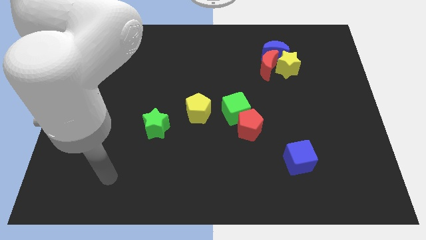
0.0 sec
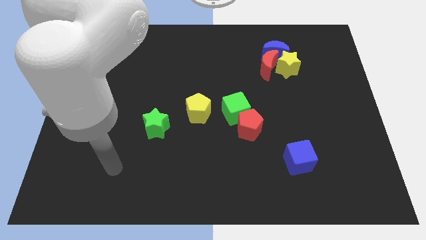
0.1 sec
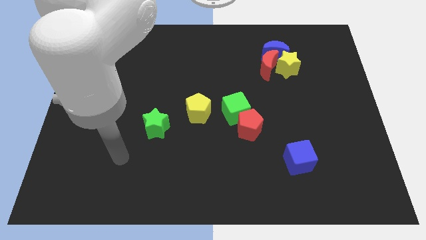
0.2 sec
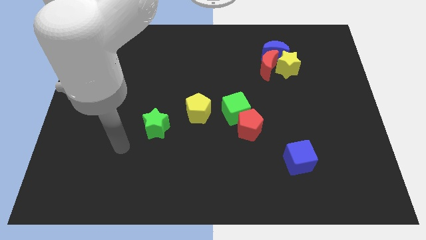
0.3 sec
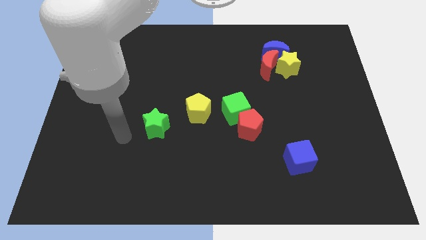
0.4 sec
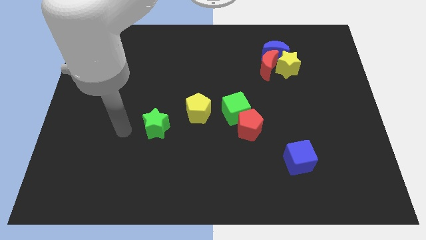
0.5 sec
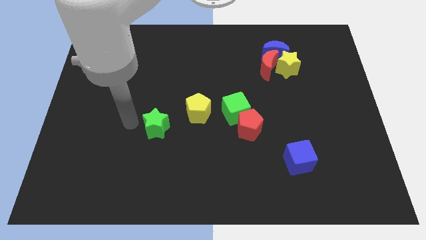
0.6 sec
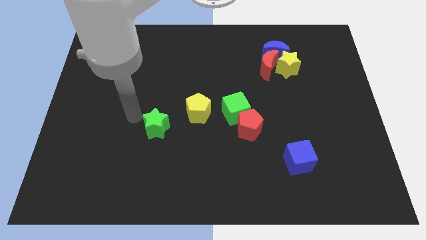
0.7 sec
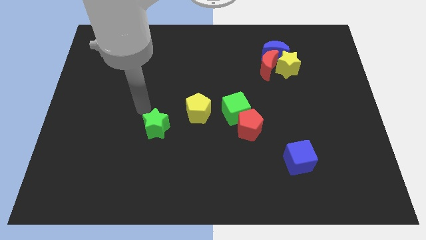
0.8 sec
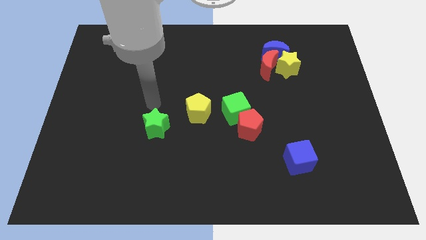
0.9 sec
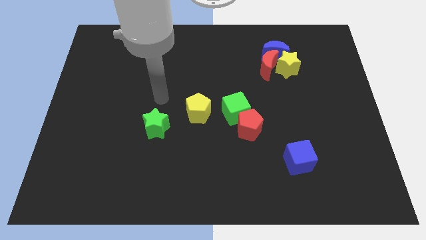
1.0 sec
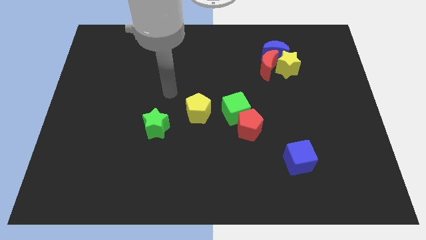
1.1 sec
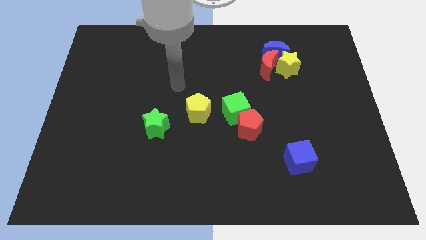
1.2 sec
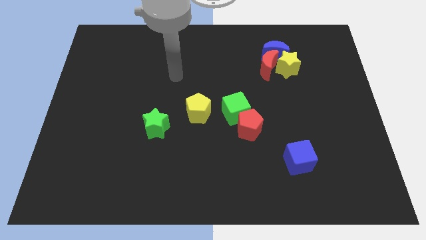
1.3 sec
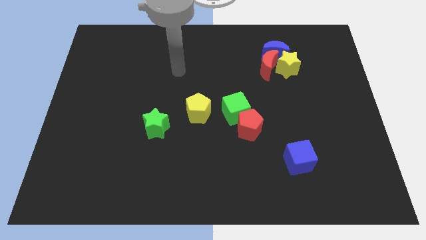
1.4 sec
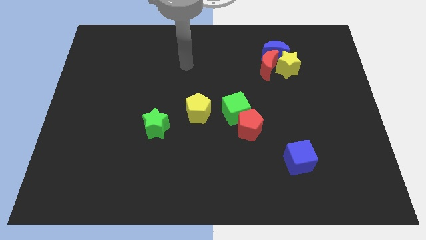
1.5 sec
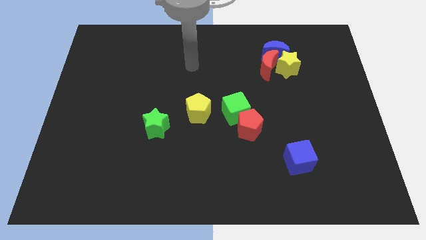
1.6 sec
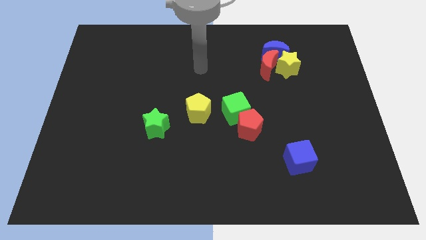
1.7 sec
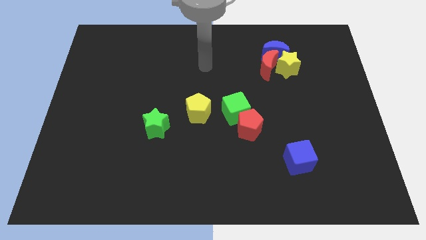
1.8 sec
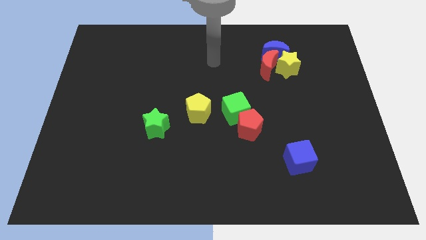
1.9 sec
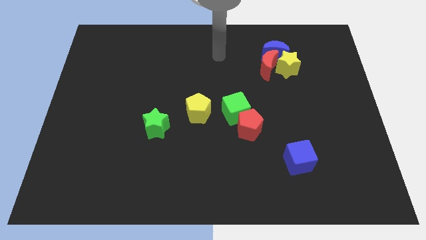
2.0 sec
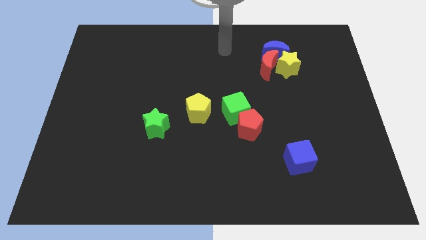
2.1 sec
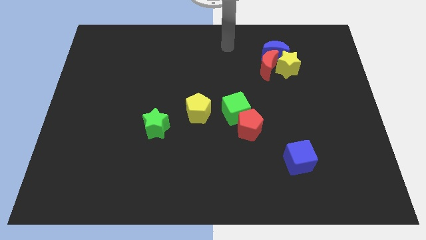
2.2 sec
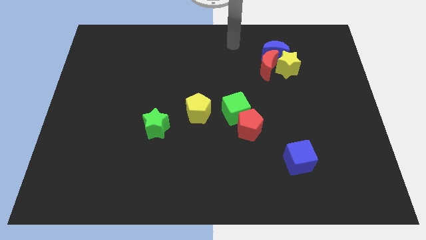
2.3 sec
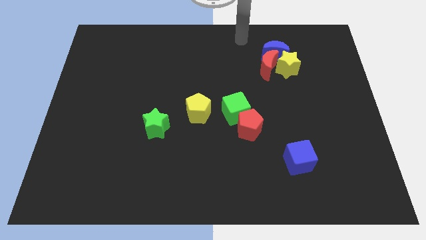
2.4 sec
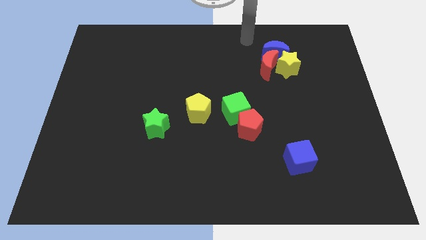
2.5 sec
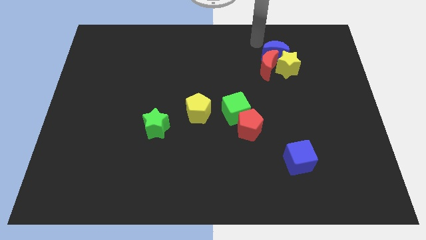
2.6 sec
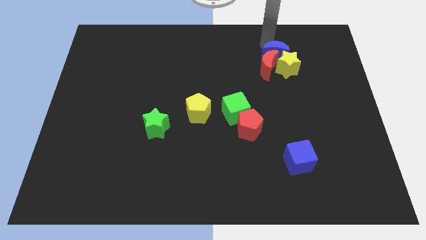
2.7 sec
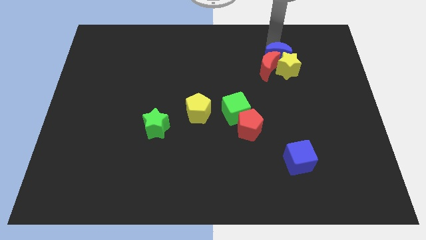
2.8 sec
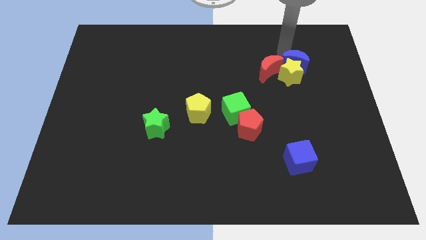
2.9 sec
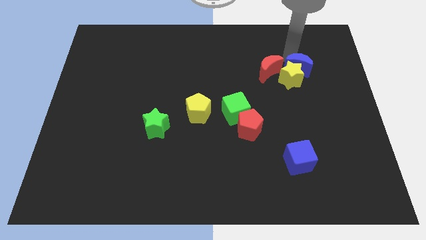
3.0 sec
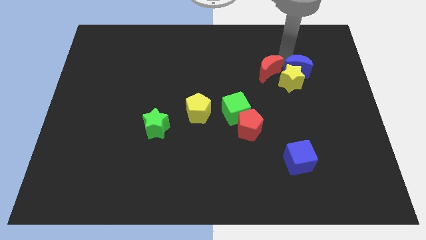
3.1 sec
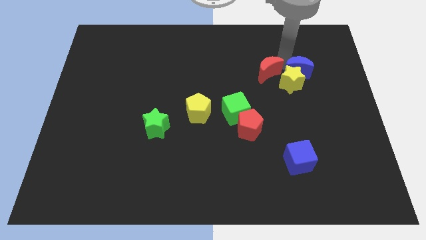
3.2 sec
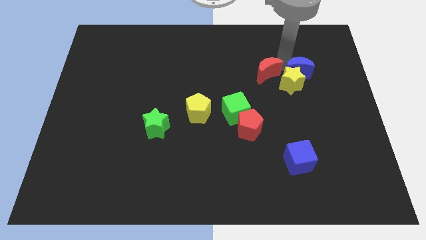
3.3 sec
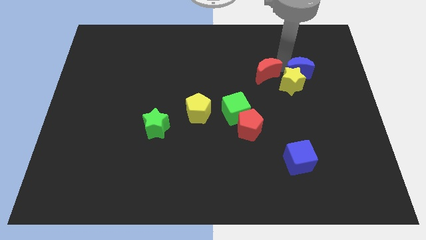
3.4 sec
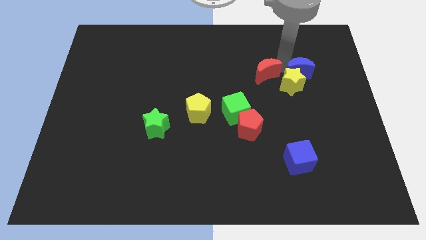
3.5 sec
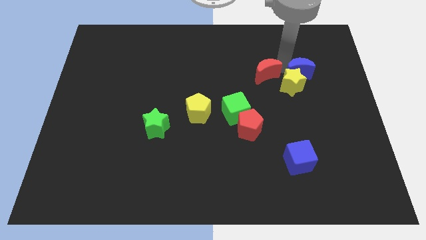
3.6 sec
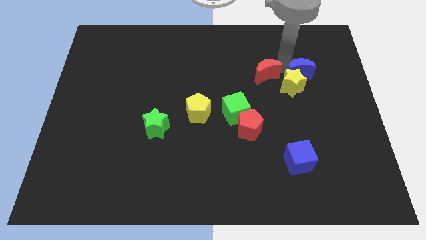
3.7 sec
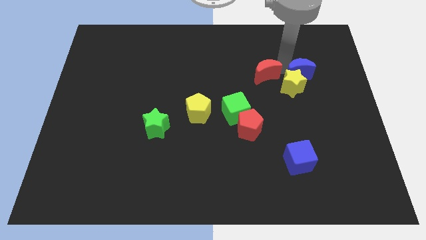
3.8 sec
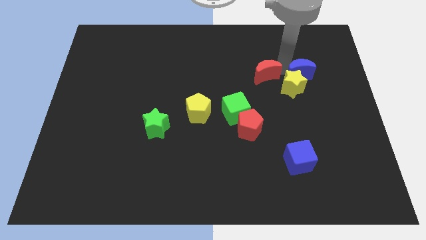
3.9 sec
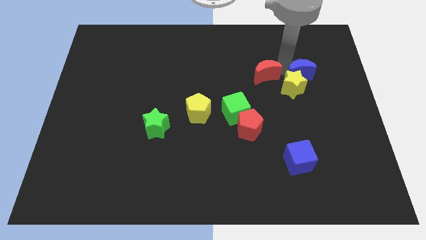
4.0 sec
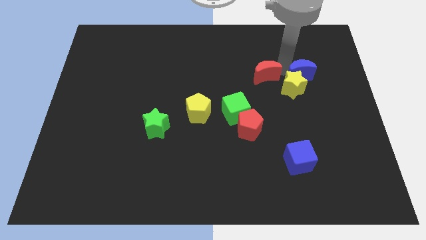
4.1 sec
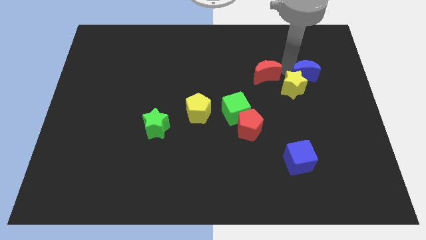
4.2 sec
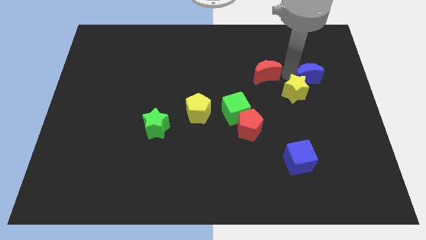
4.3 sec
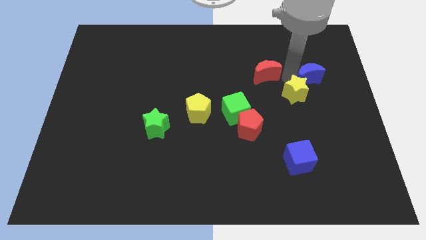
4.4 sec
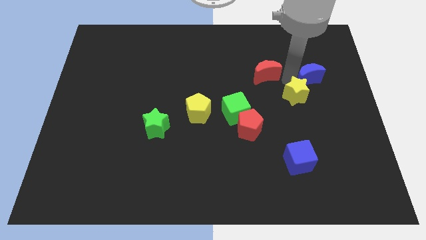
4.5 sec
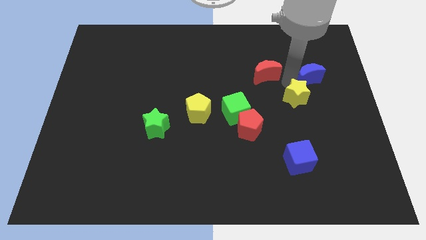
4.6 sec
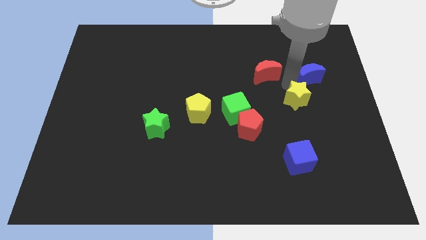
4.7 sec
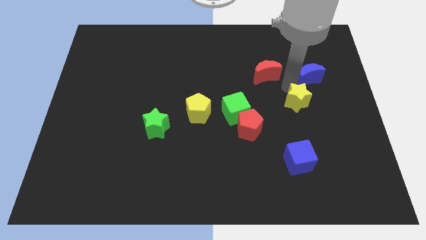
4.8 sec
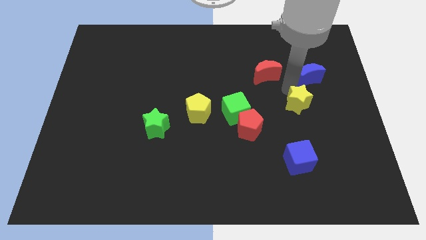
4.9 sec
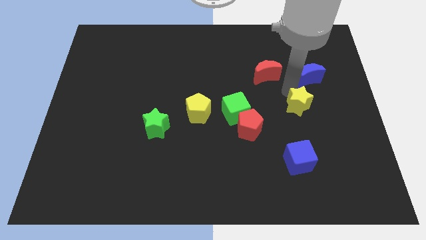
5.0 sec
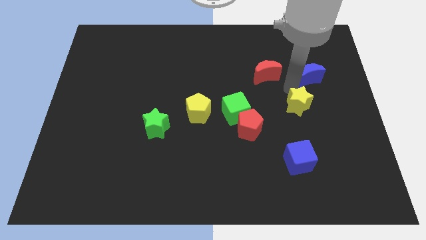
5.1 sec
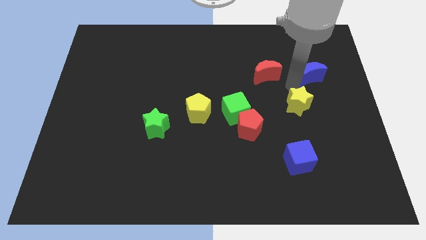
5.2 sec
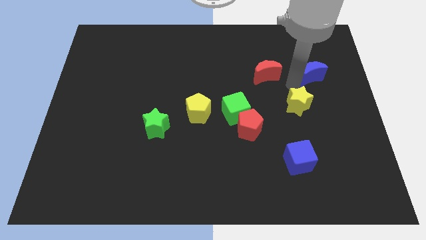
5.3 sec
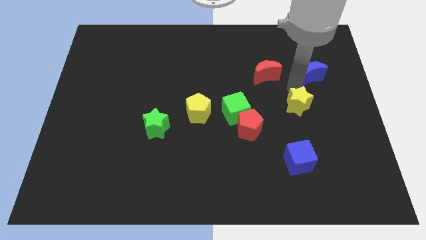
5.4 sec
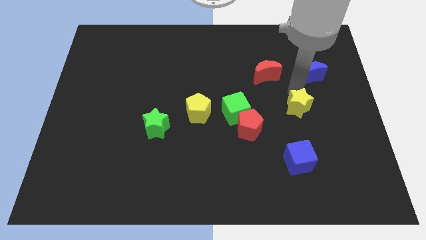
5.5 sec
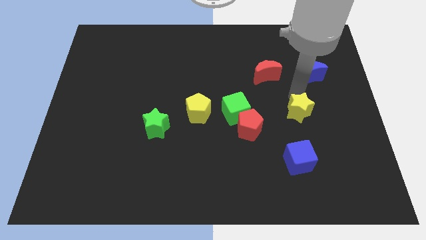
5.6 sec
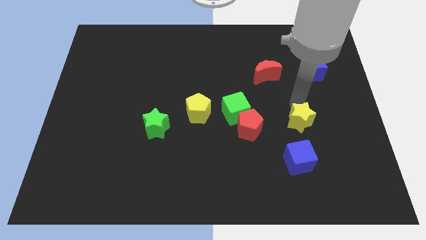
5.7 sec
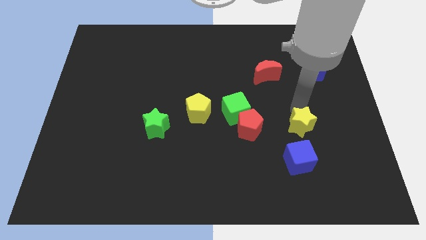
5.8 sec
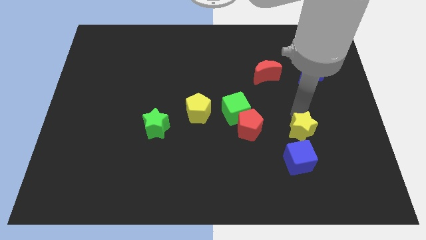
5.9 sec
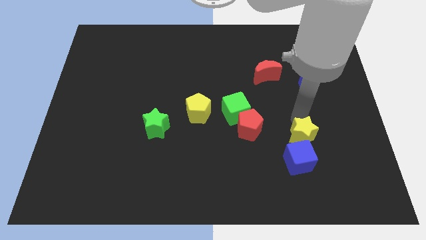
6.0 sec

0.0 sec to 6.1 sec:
slide the yellow star down

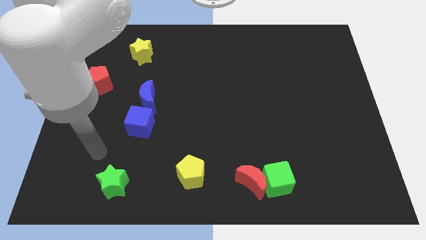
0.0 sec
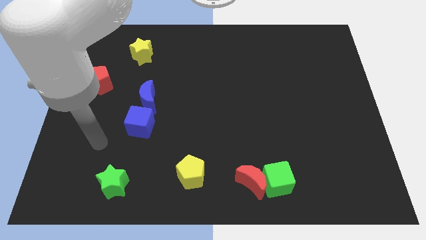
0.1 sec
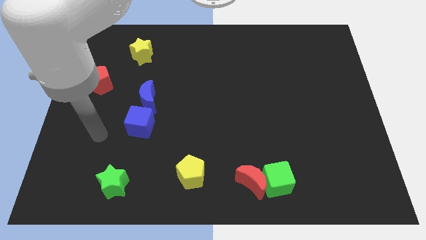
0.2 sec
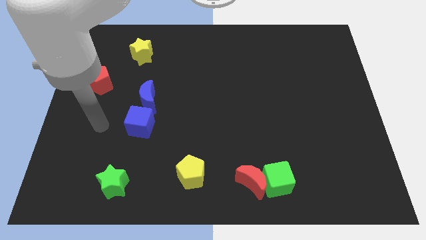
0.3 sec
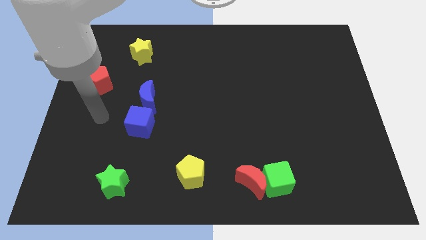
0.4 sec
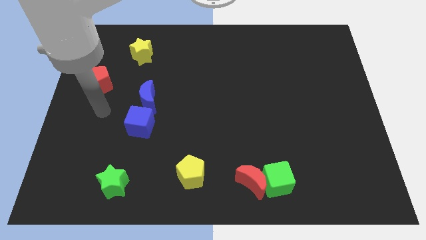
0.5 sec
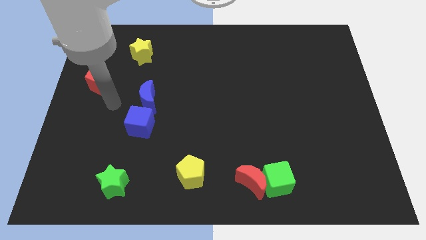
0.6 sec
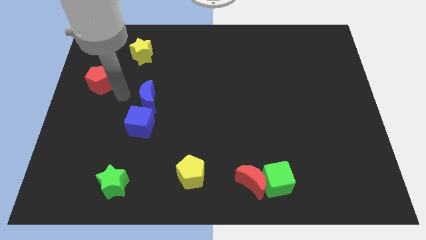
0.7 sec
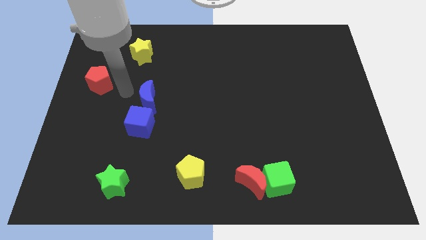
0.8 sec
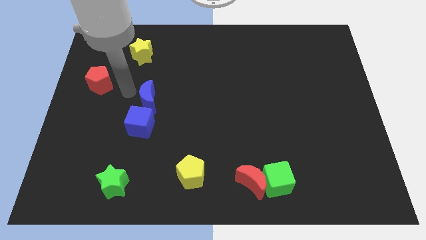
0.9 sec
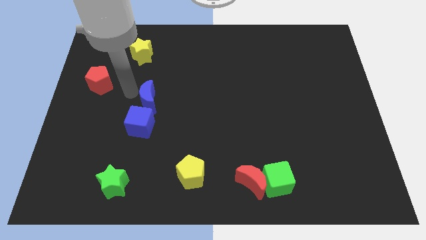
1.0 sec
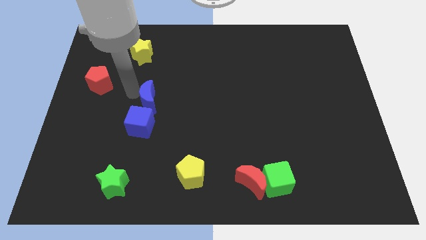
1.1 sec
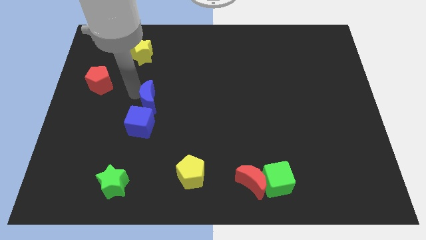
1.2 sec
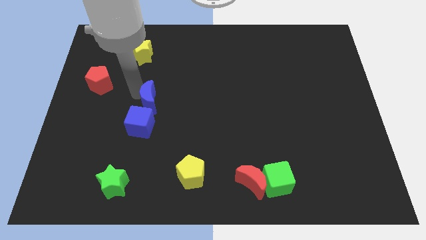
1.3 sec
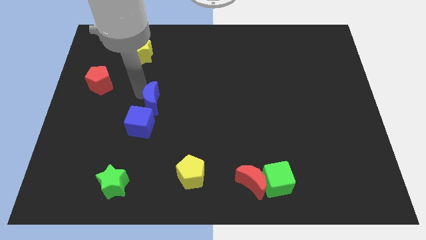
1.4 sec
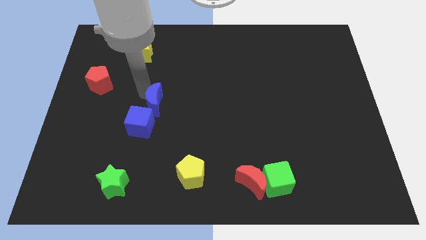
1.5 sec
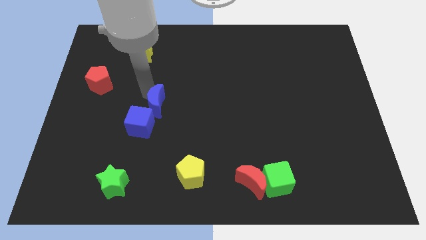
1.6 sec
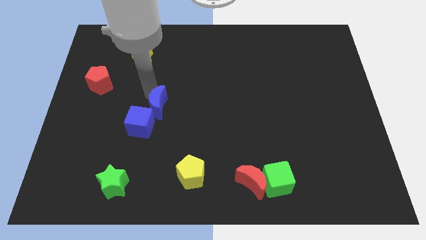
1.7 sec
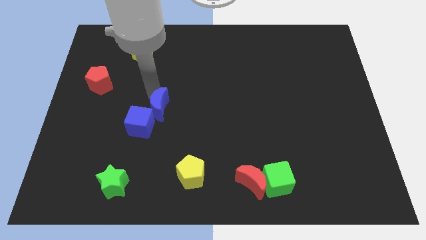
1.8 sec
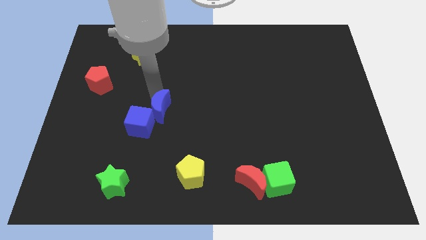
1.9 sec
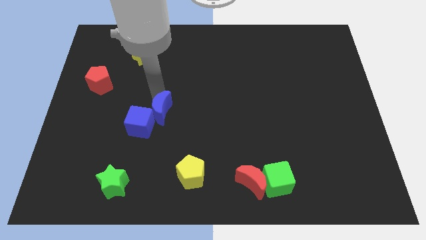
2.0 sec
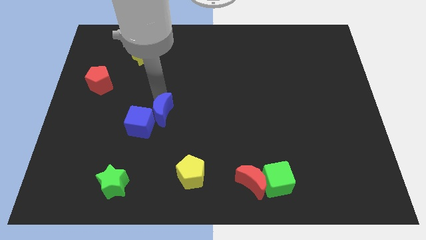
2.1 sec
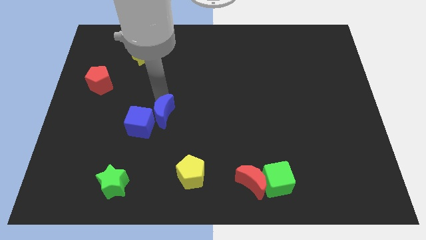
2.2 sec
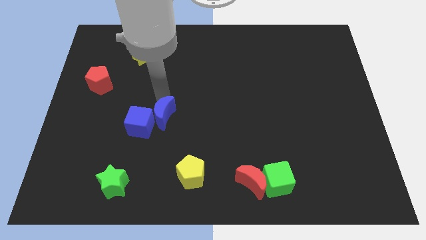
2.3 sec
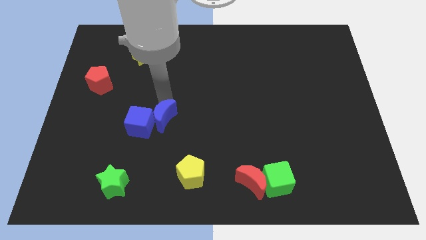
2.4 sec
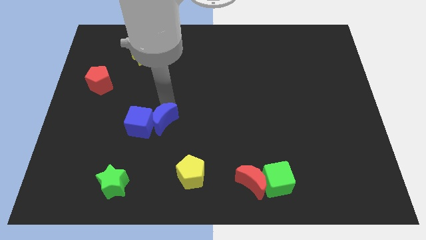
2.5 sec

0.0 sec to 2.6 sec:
slightly slide the blue moon down and right
